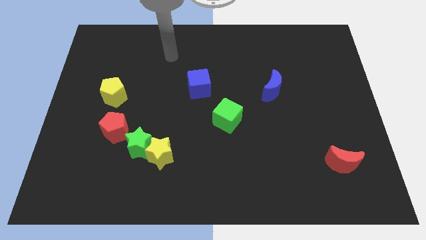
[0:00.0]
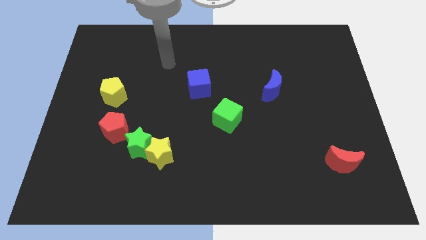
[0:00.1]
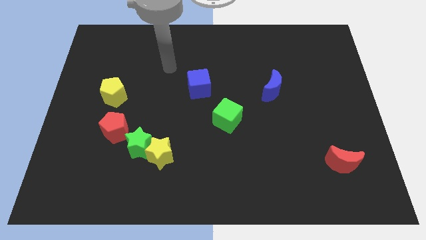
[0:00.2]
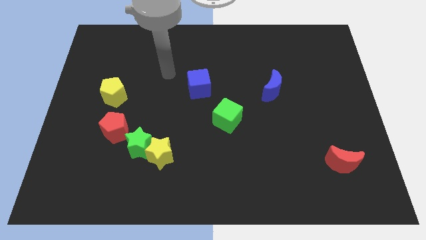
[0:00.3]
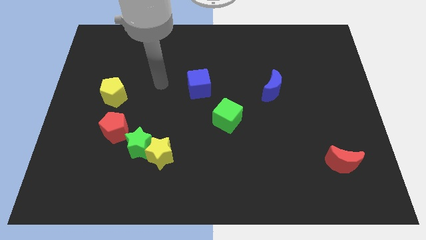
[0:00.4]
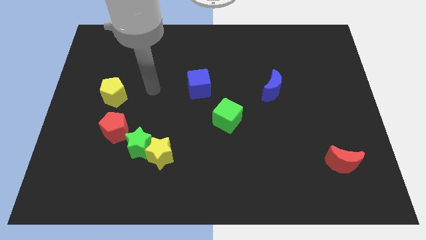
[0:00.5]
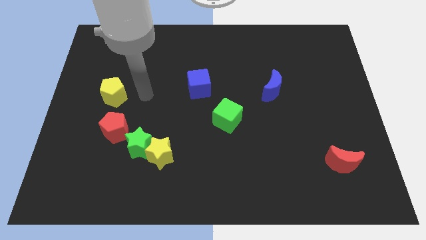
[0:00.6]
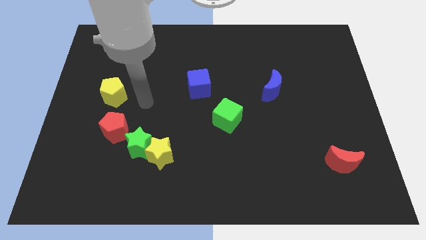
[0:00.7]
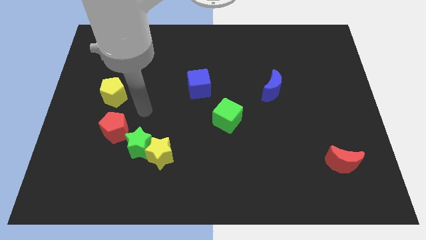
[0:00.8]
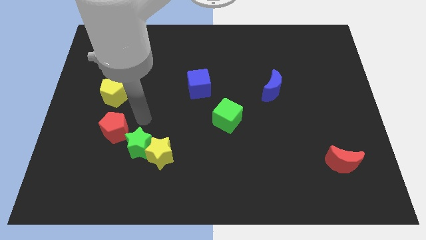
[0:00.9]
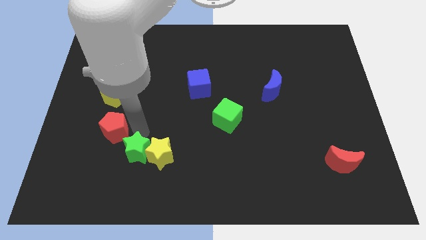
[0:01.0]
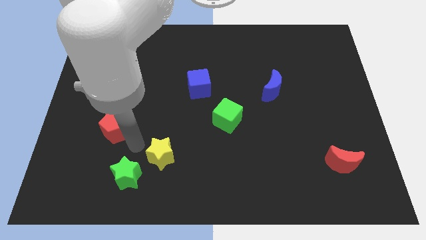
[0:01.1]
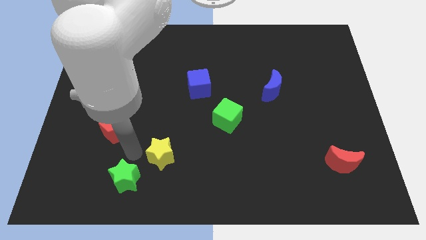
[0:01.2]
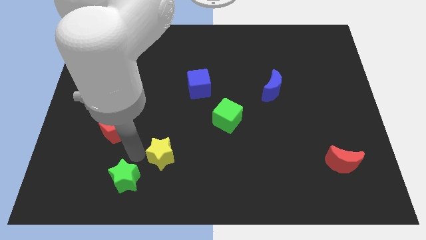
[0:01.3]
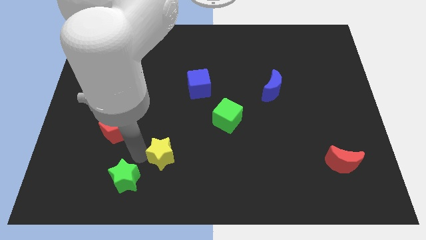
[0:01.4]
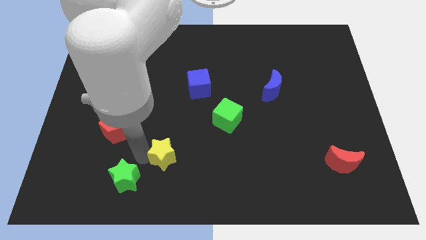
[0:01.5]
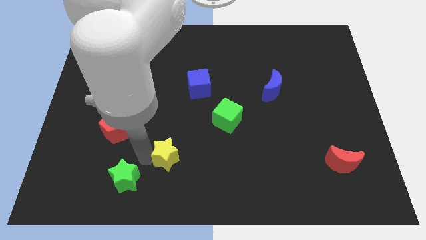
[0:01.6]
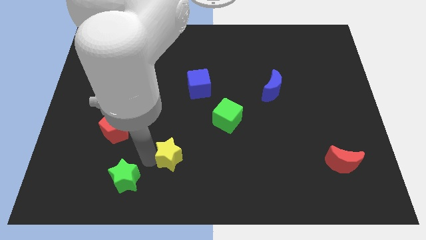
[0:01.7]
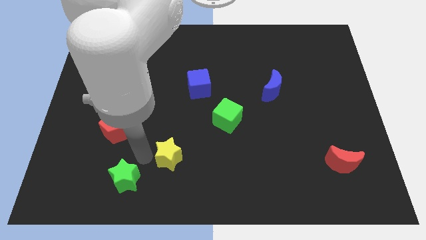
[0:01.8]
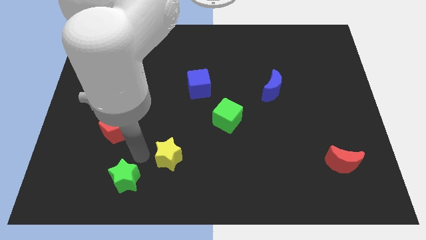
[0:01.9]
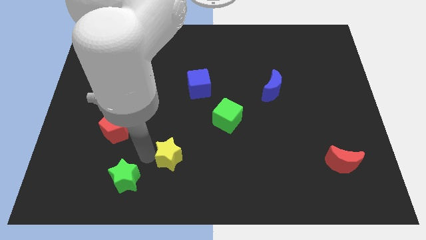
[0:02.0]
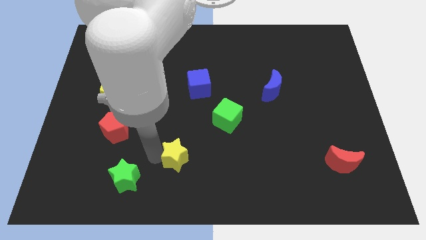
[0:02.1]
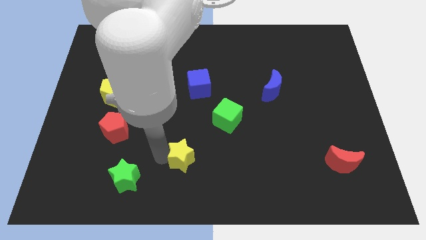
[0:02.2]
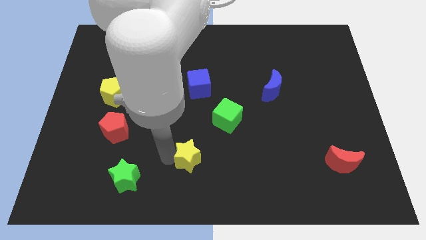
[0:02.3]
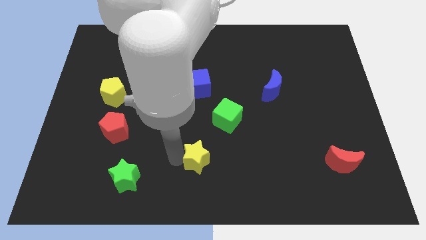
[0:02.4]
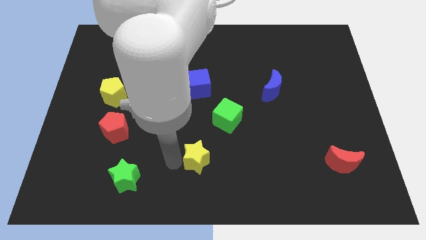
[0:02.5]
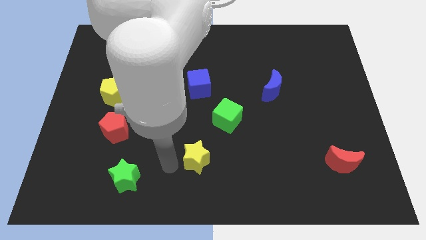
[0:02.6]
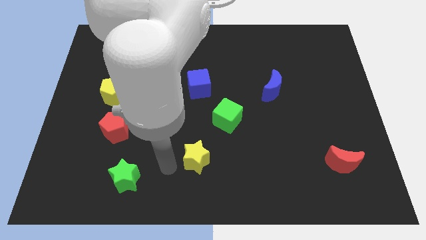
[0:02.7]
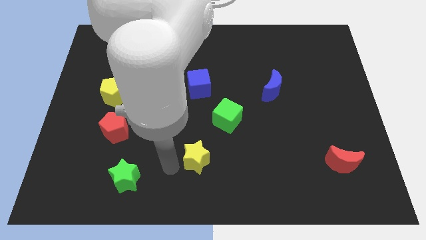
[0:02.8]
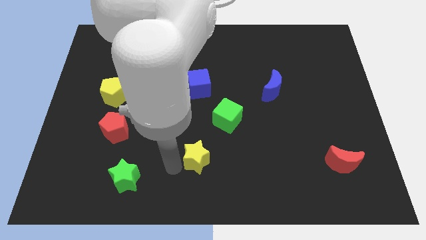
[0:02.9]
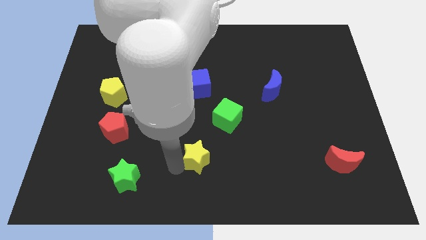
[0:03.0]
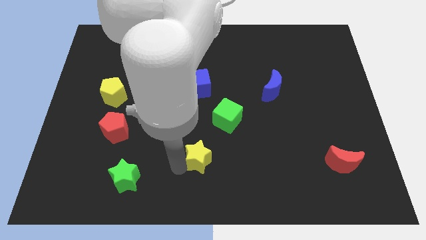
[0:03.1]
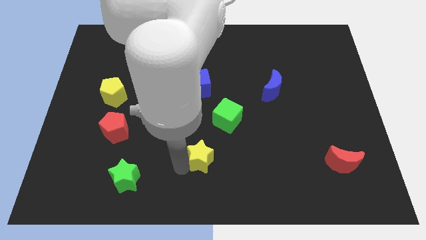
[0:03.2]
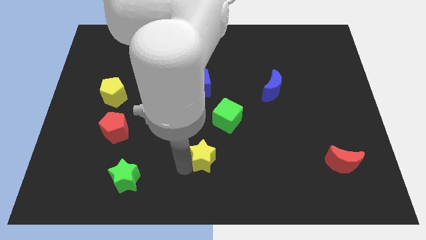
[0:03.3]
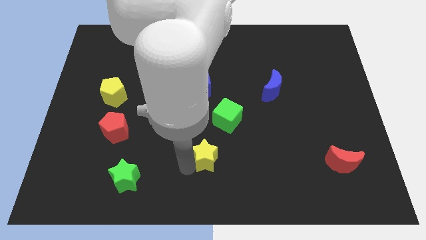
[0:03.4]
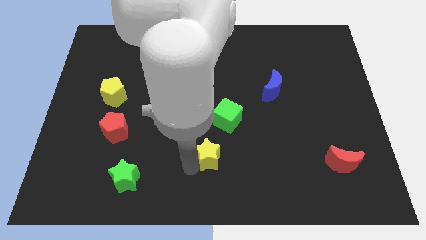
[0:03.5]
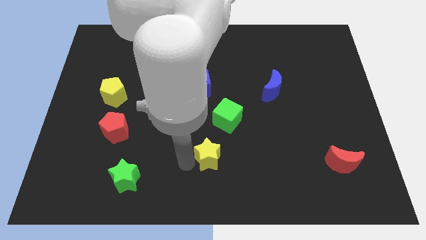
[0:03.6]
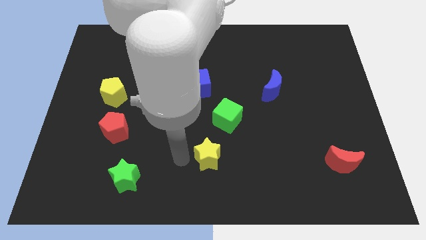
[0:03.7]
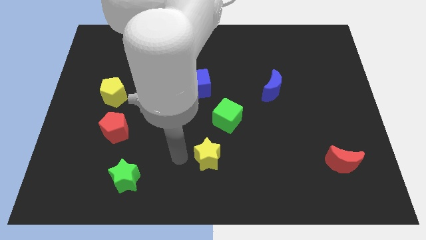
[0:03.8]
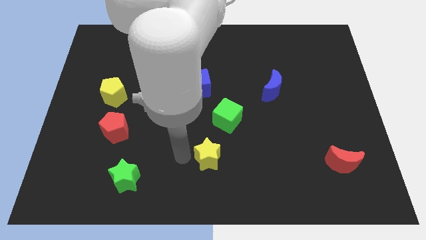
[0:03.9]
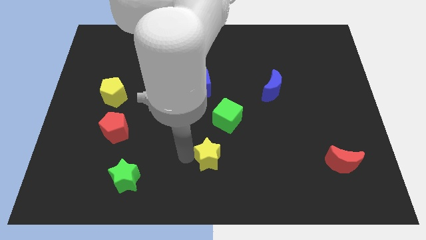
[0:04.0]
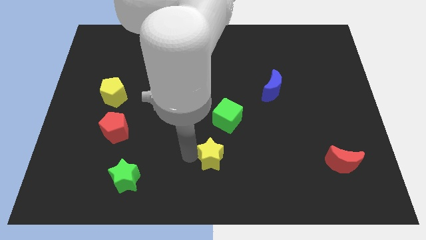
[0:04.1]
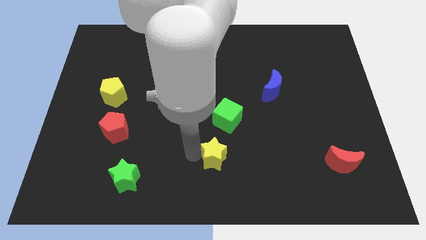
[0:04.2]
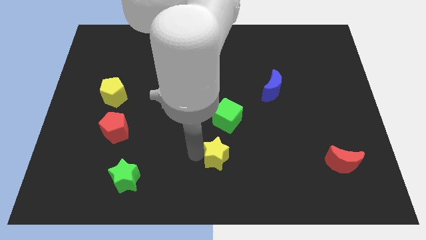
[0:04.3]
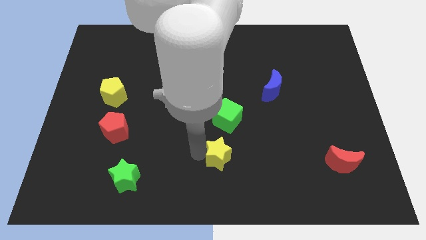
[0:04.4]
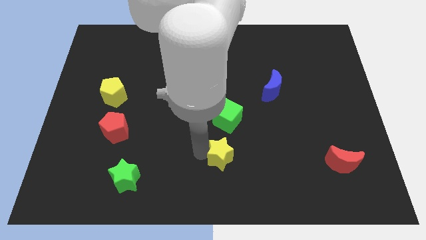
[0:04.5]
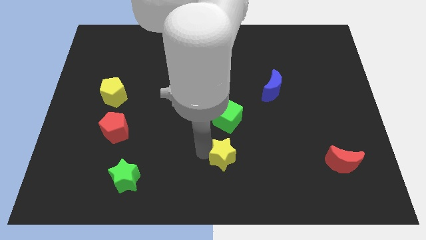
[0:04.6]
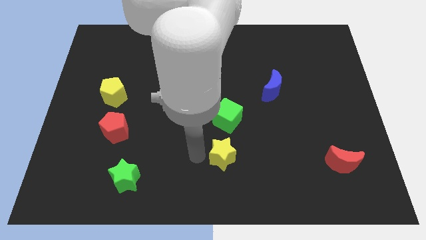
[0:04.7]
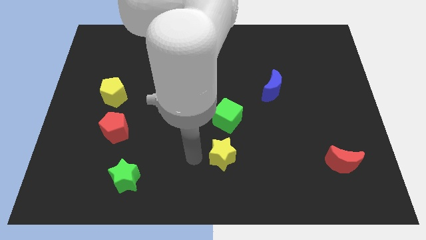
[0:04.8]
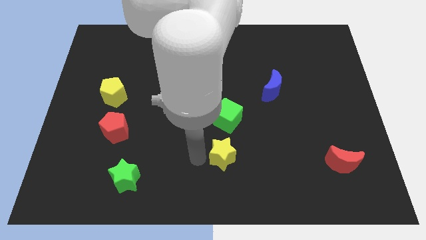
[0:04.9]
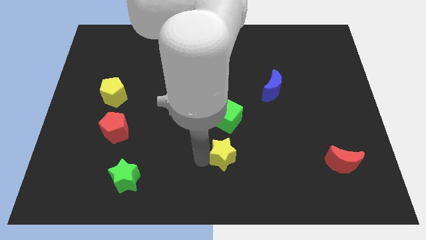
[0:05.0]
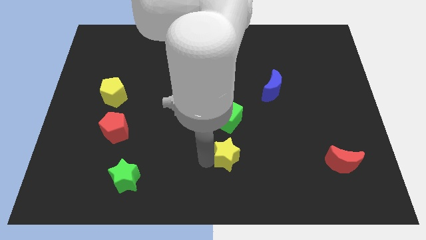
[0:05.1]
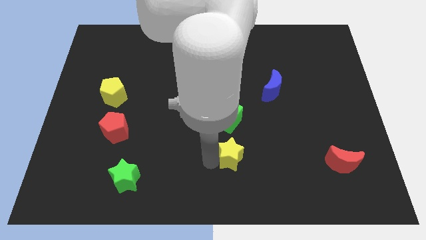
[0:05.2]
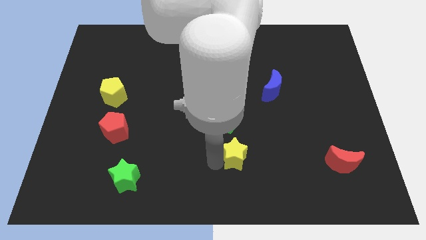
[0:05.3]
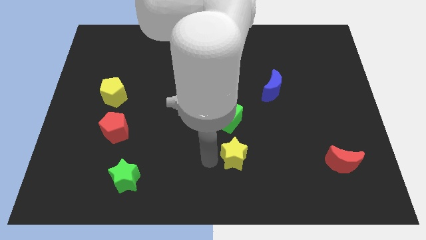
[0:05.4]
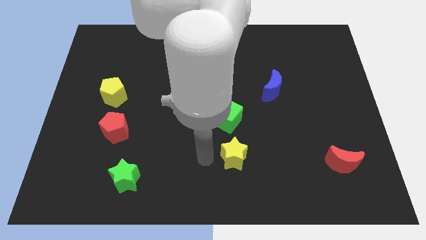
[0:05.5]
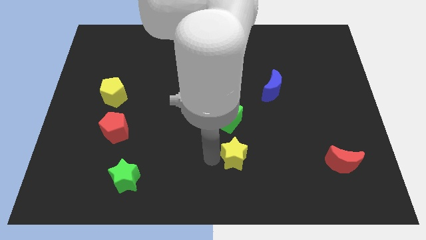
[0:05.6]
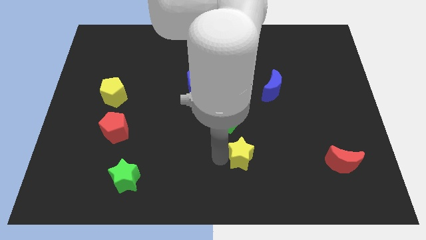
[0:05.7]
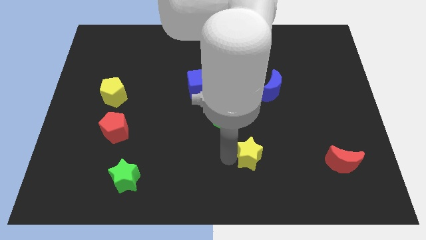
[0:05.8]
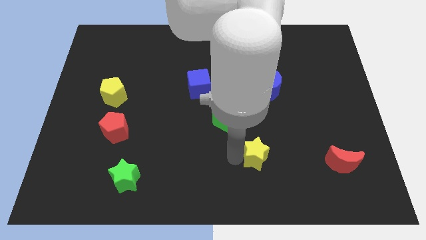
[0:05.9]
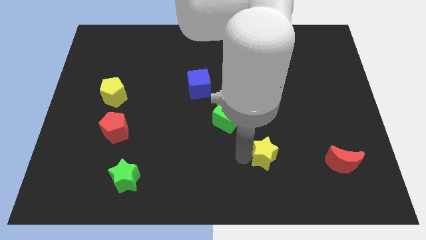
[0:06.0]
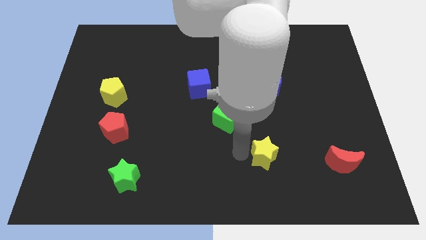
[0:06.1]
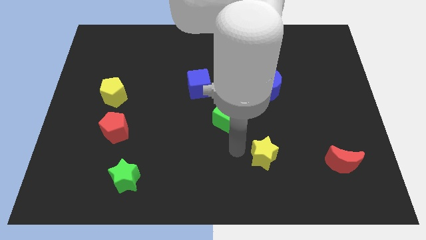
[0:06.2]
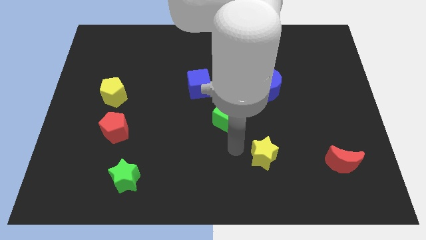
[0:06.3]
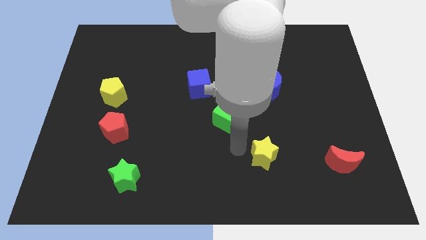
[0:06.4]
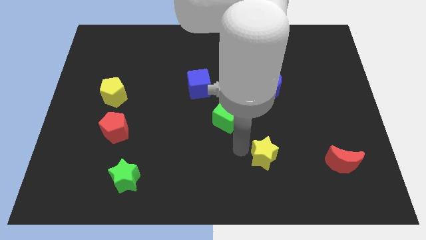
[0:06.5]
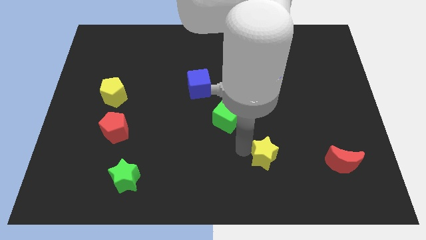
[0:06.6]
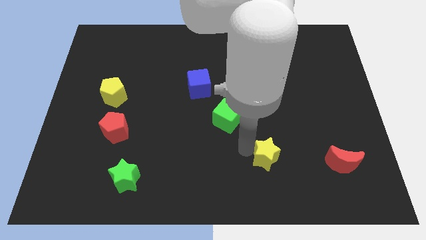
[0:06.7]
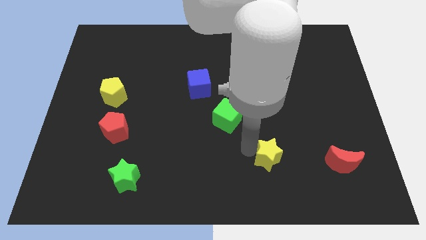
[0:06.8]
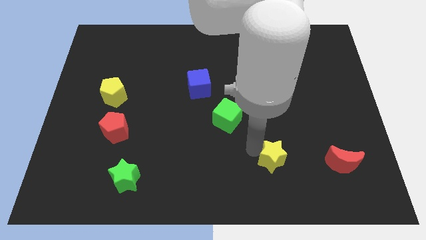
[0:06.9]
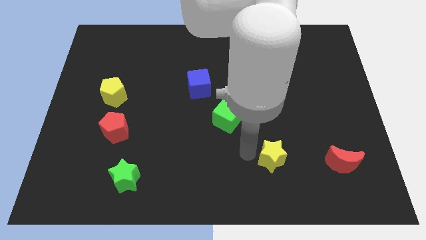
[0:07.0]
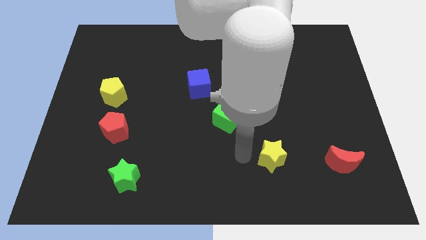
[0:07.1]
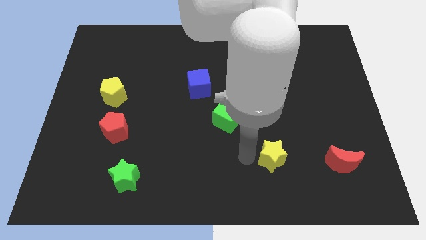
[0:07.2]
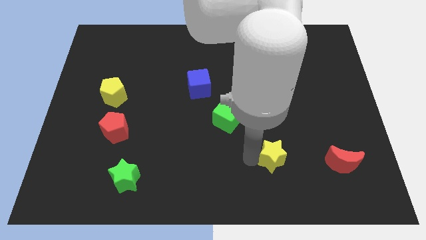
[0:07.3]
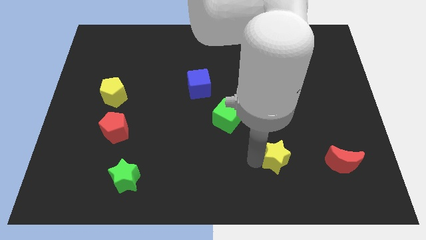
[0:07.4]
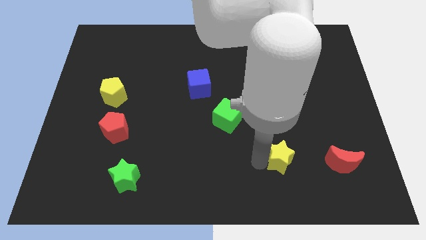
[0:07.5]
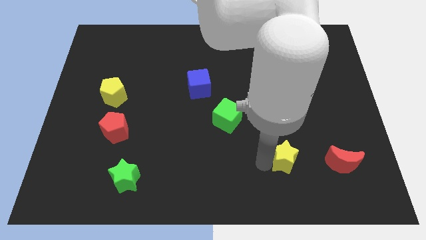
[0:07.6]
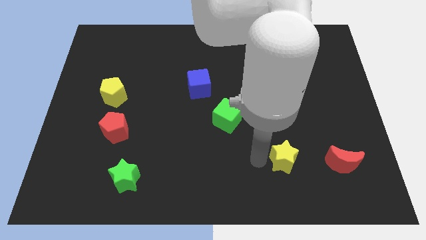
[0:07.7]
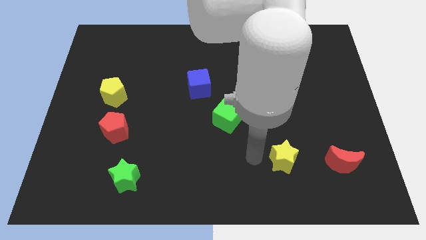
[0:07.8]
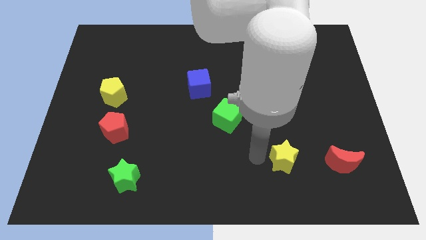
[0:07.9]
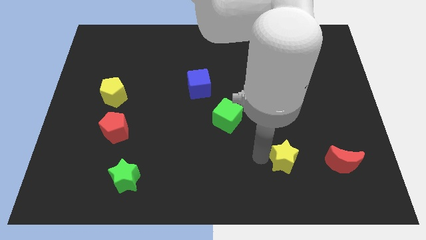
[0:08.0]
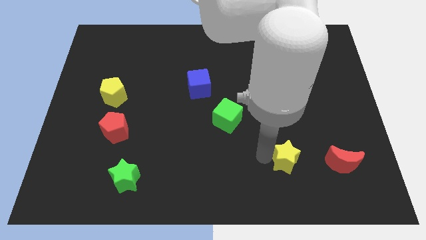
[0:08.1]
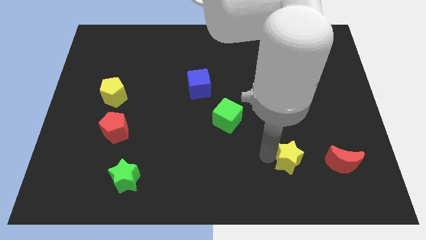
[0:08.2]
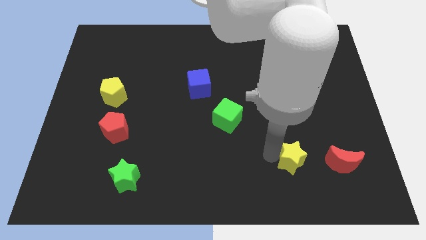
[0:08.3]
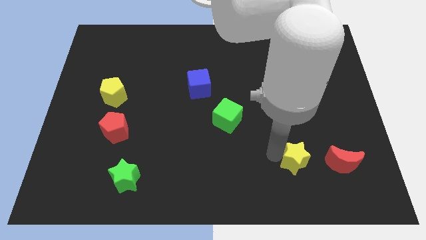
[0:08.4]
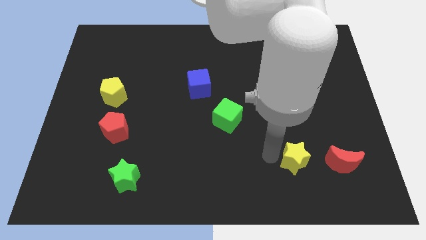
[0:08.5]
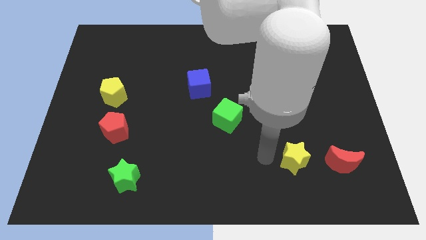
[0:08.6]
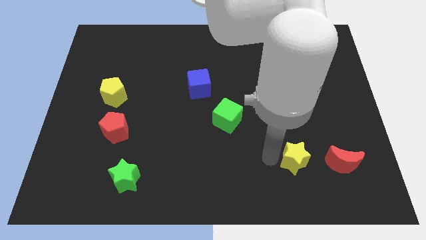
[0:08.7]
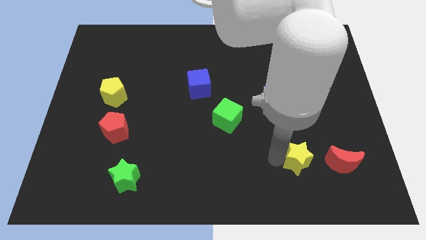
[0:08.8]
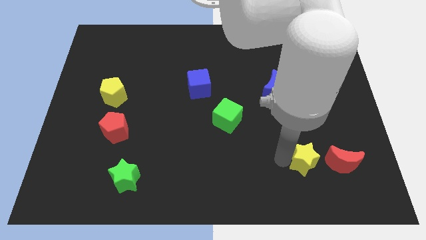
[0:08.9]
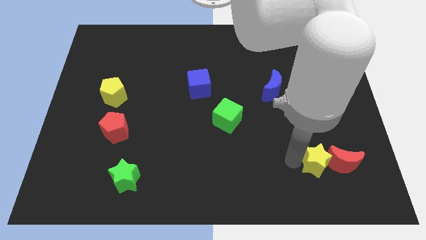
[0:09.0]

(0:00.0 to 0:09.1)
put the yellow star next to the red moon
